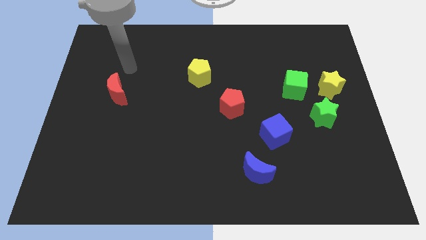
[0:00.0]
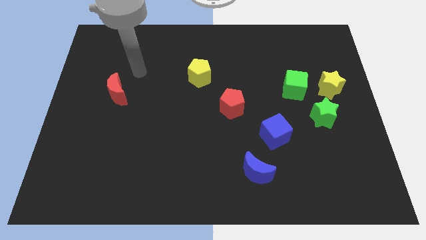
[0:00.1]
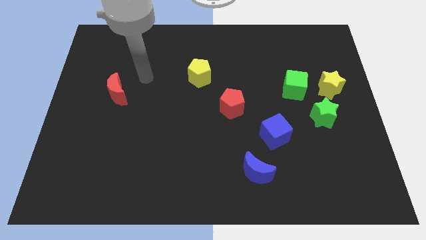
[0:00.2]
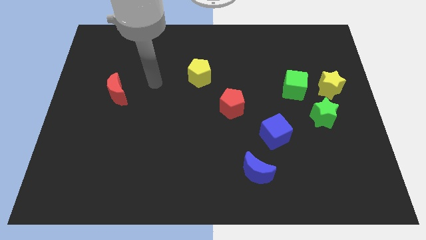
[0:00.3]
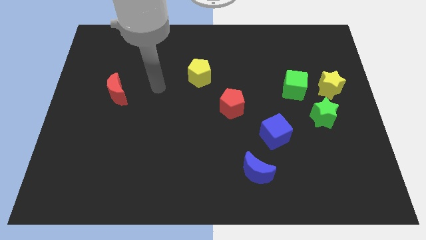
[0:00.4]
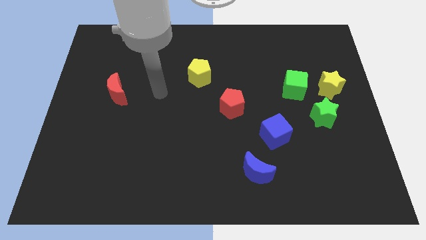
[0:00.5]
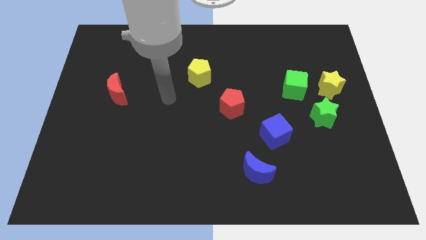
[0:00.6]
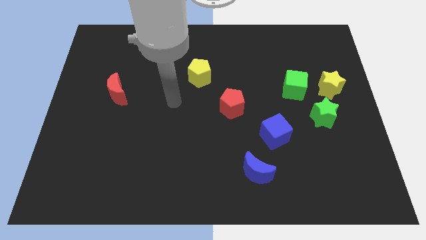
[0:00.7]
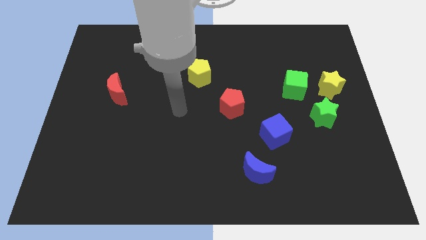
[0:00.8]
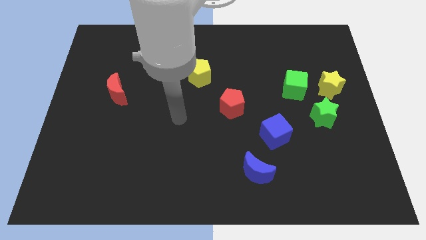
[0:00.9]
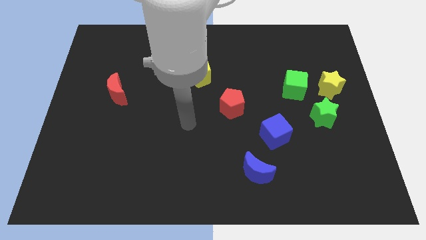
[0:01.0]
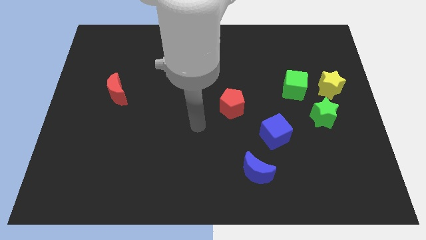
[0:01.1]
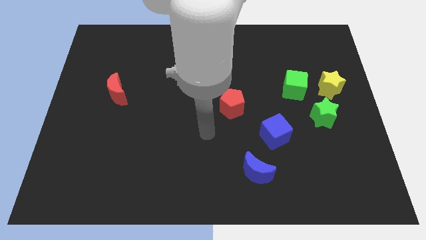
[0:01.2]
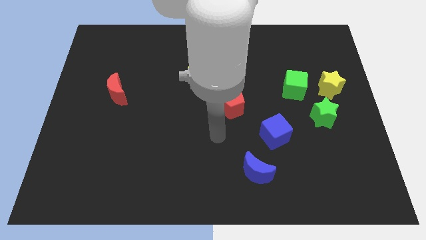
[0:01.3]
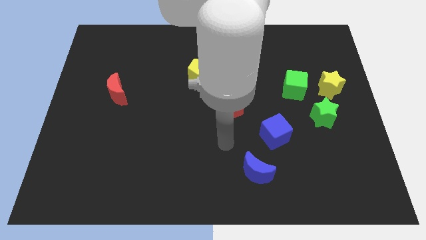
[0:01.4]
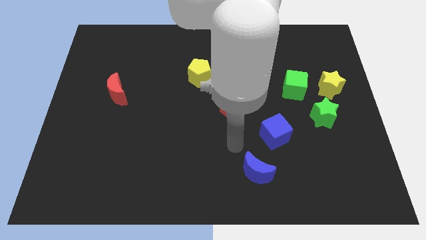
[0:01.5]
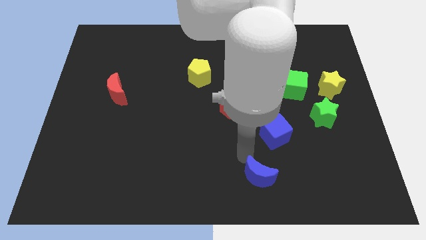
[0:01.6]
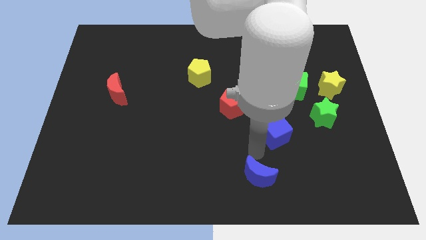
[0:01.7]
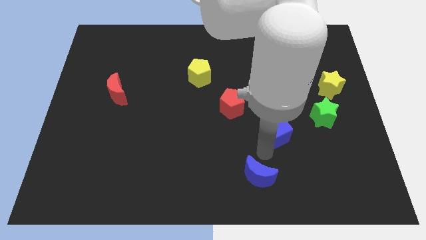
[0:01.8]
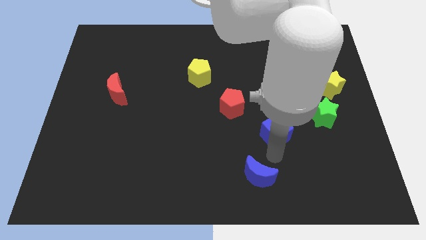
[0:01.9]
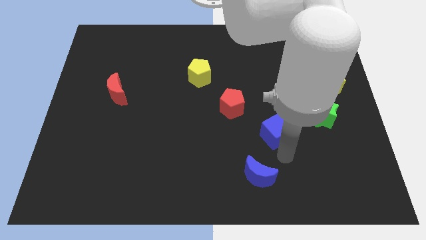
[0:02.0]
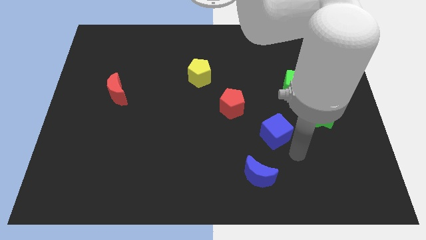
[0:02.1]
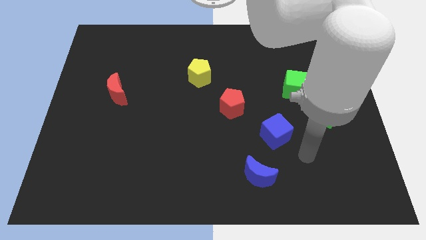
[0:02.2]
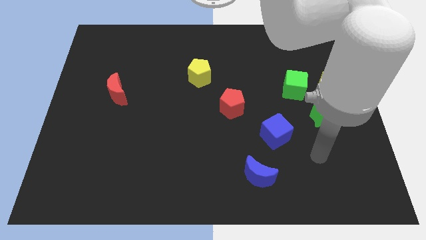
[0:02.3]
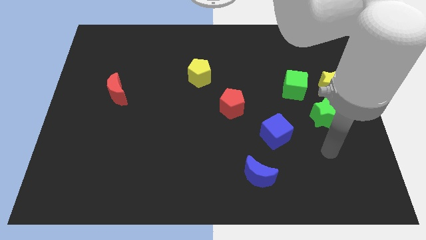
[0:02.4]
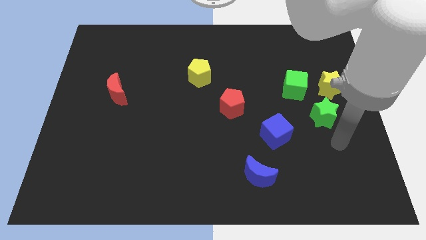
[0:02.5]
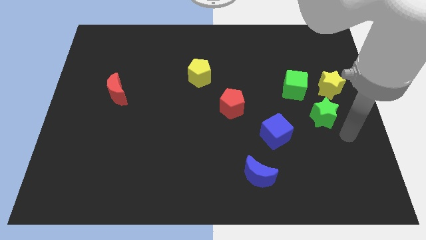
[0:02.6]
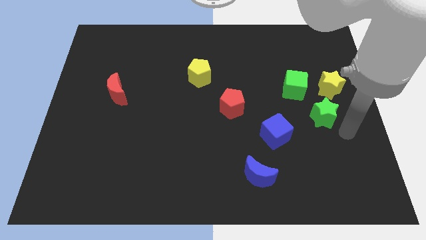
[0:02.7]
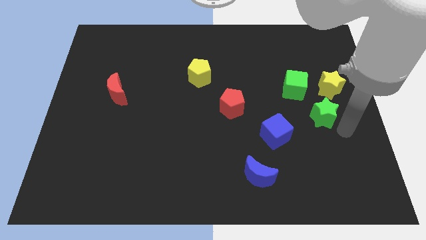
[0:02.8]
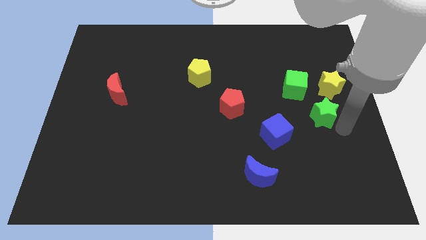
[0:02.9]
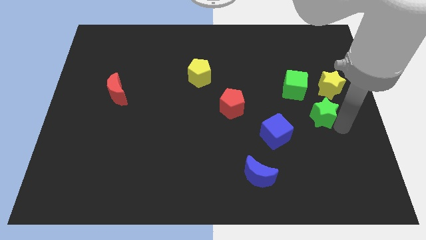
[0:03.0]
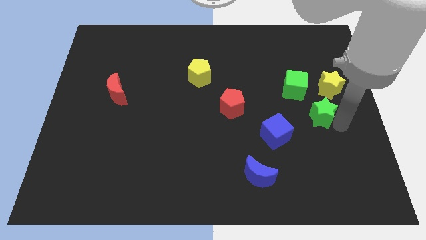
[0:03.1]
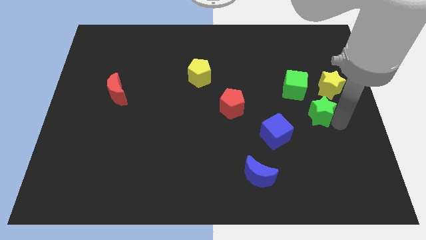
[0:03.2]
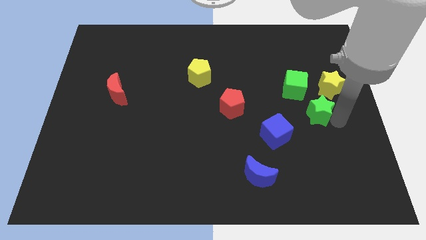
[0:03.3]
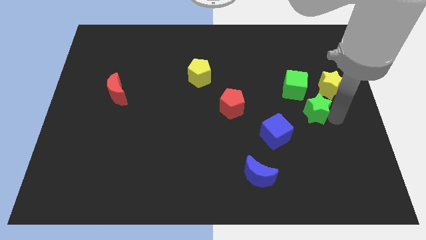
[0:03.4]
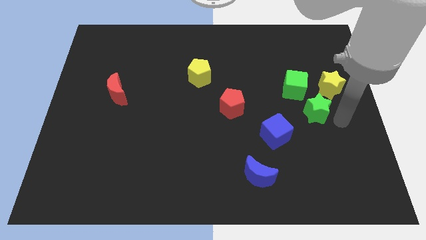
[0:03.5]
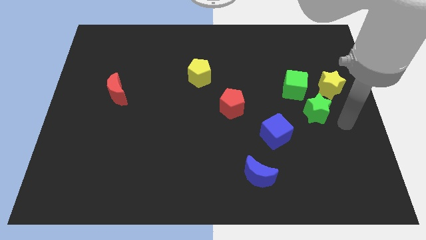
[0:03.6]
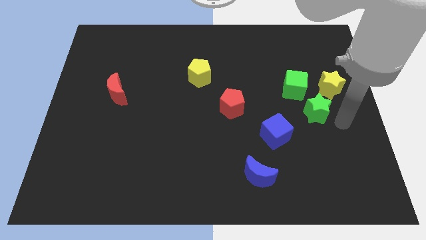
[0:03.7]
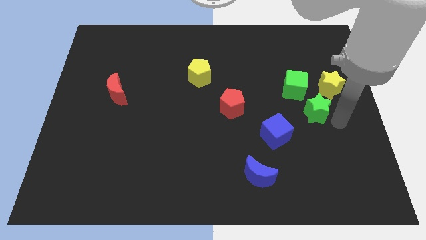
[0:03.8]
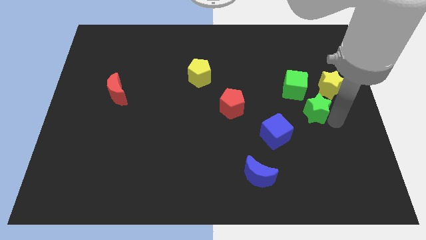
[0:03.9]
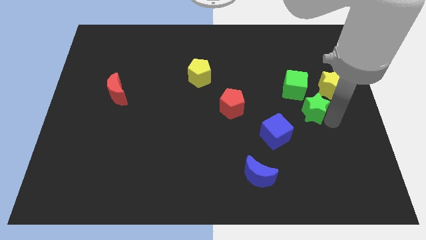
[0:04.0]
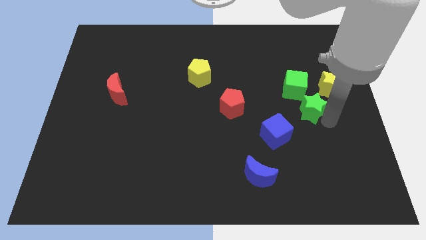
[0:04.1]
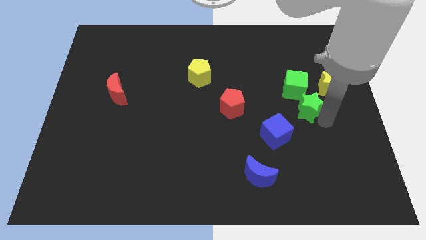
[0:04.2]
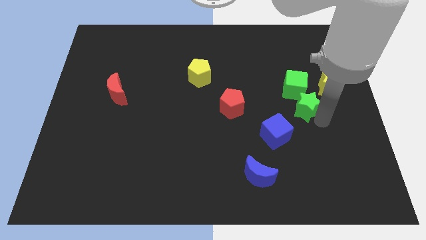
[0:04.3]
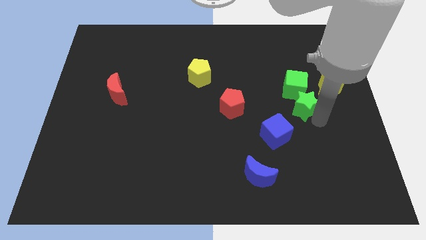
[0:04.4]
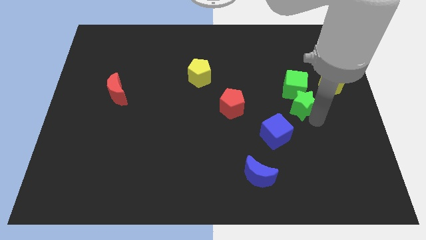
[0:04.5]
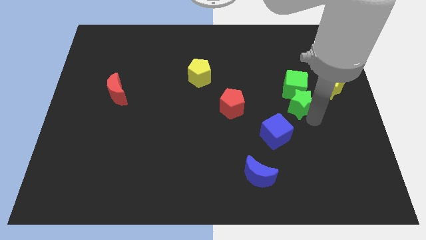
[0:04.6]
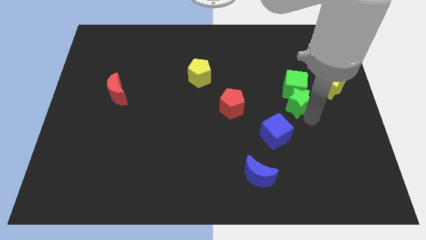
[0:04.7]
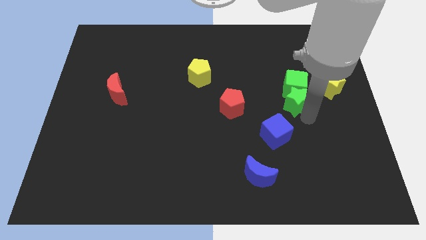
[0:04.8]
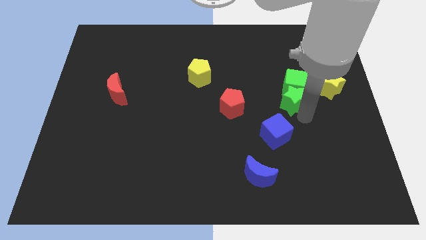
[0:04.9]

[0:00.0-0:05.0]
slide the green star upwards and left diagonally a bit

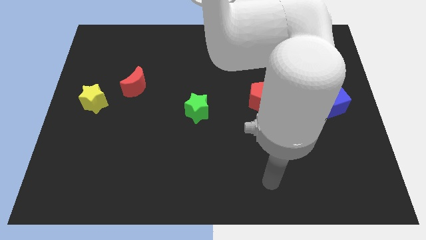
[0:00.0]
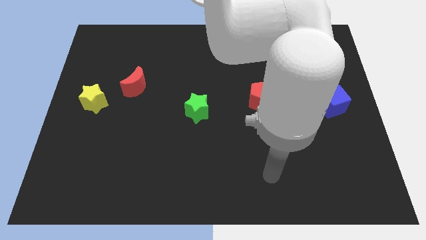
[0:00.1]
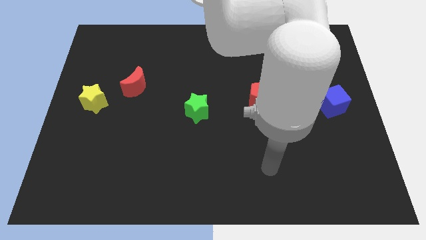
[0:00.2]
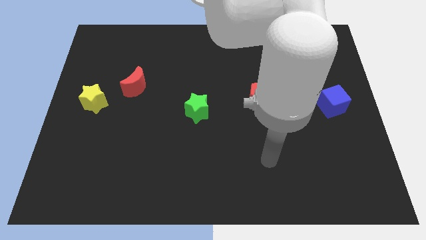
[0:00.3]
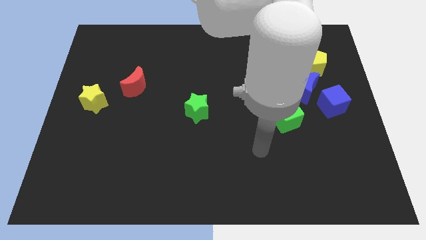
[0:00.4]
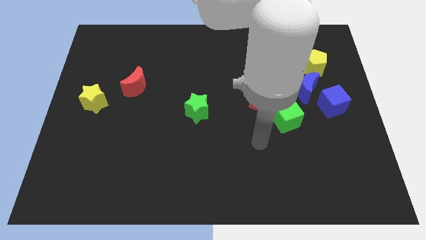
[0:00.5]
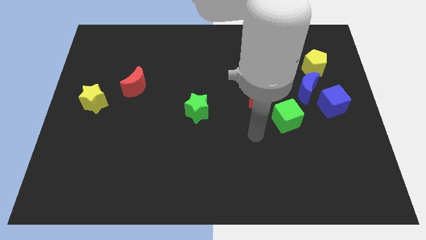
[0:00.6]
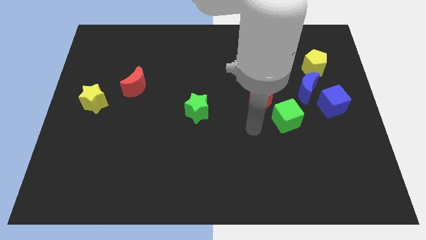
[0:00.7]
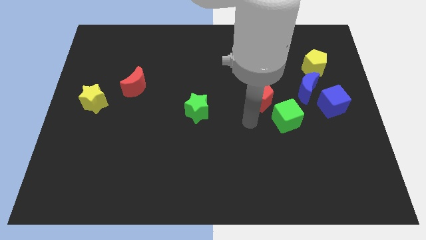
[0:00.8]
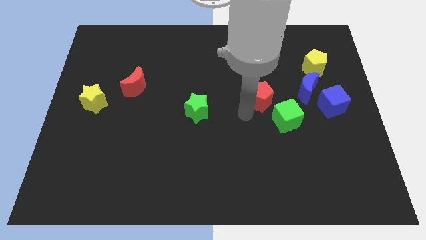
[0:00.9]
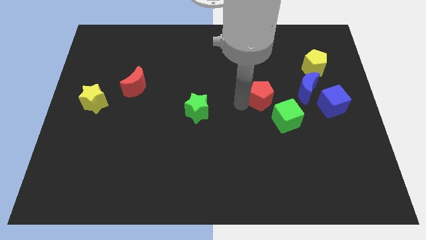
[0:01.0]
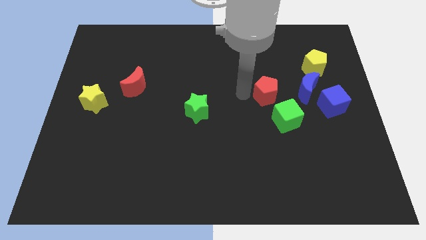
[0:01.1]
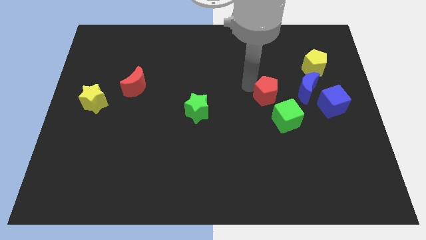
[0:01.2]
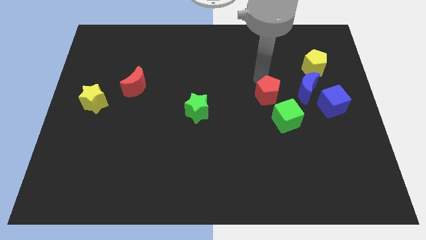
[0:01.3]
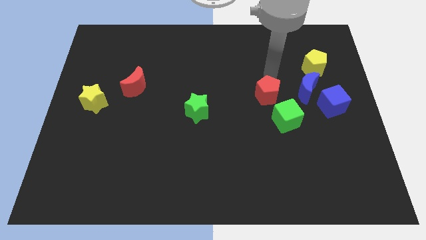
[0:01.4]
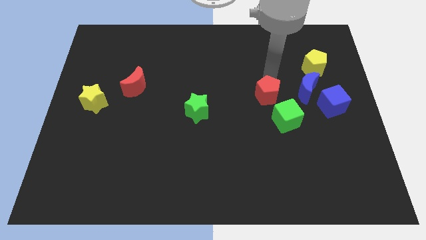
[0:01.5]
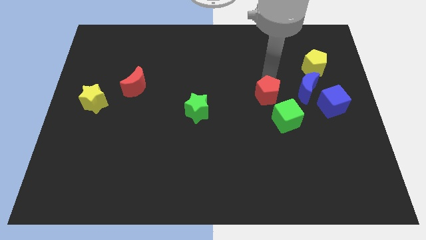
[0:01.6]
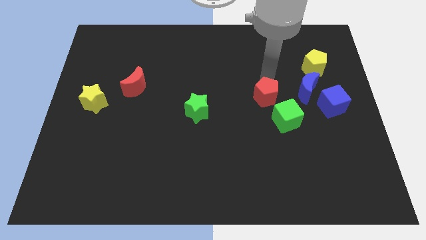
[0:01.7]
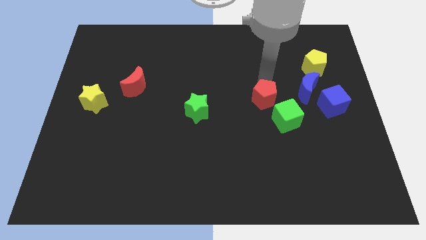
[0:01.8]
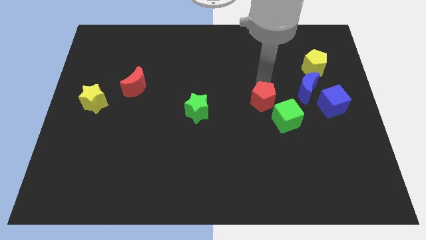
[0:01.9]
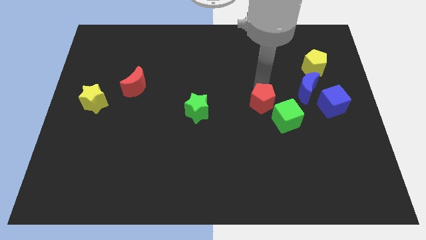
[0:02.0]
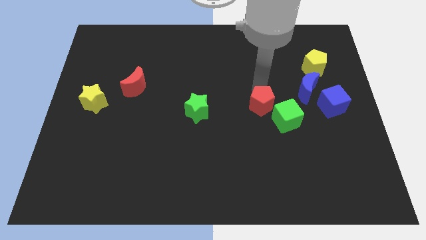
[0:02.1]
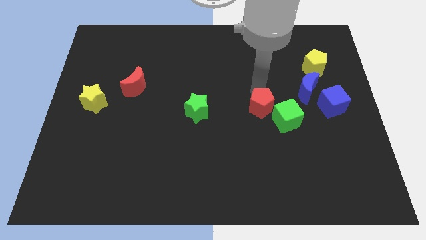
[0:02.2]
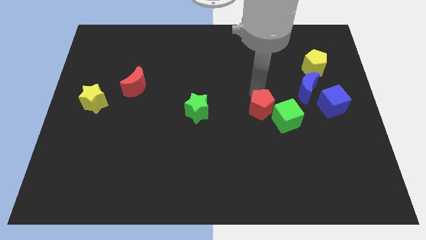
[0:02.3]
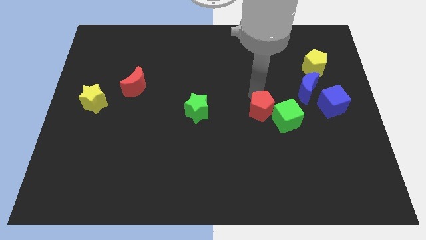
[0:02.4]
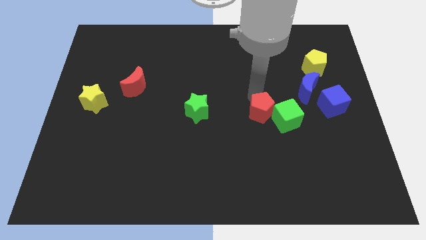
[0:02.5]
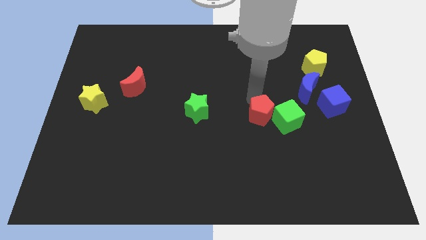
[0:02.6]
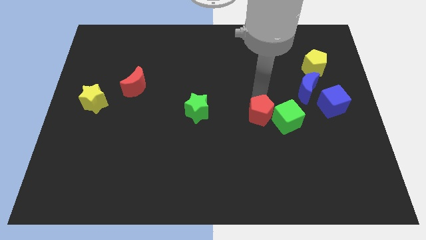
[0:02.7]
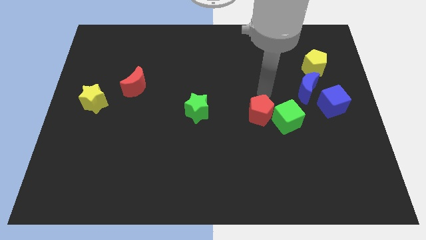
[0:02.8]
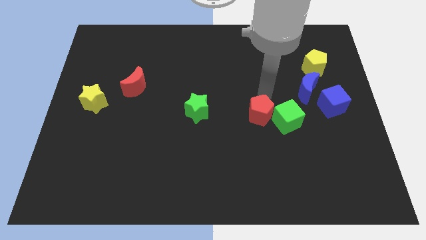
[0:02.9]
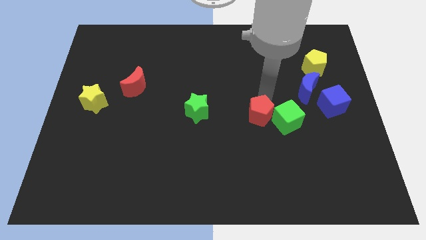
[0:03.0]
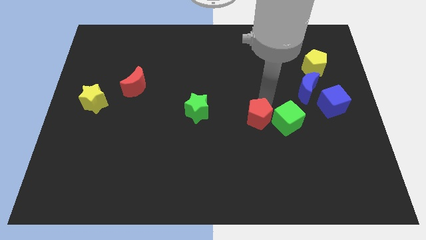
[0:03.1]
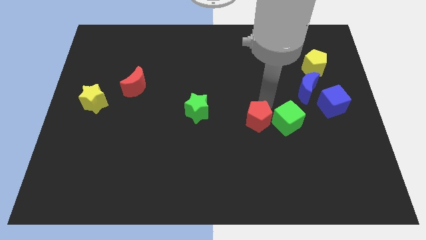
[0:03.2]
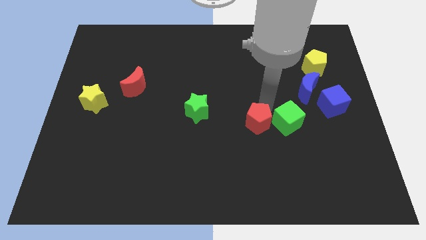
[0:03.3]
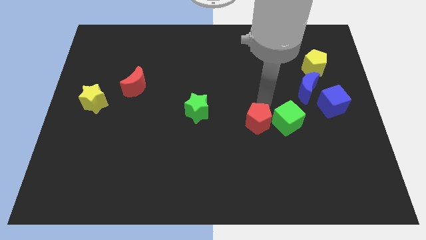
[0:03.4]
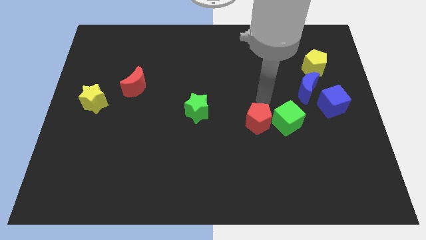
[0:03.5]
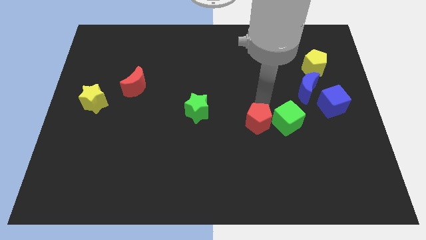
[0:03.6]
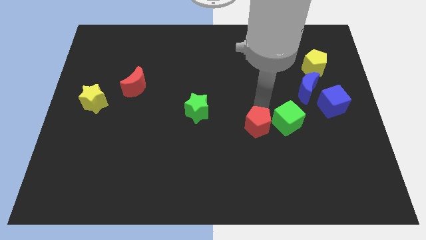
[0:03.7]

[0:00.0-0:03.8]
push the red pentagon a little bit downwards
